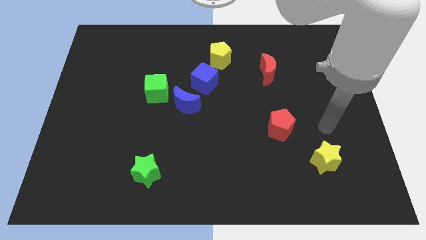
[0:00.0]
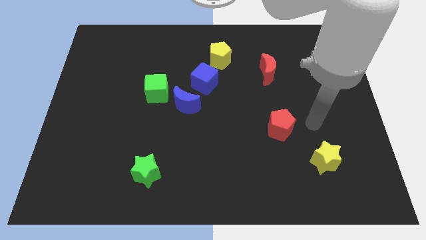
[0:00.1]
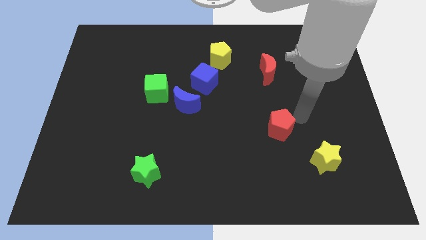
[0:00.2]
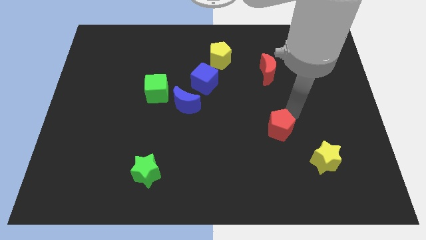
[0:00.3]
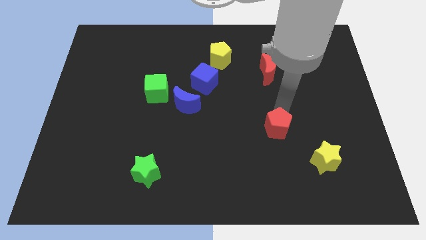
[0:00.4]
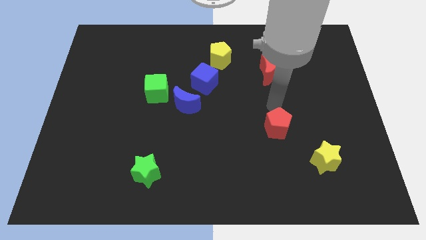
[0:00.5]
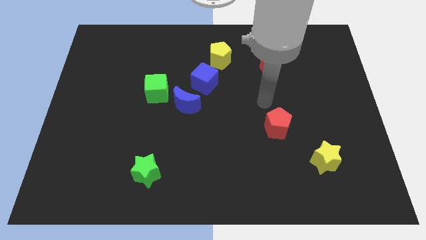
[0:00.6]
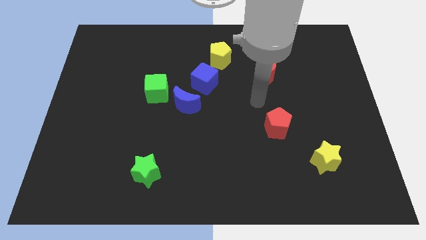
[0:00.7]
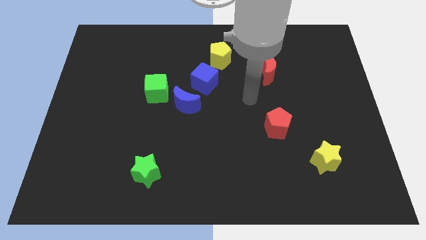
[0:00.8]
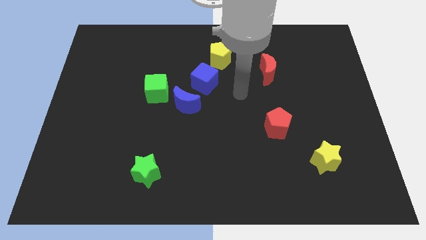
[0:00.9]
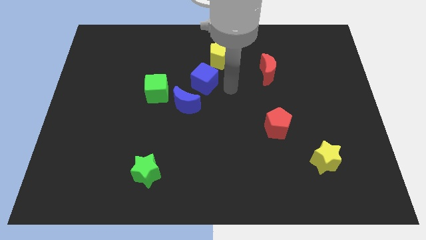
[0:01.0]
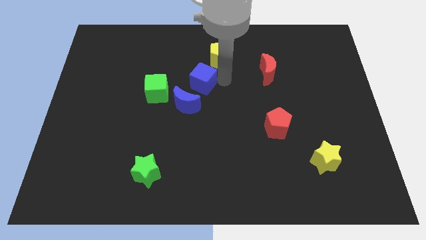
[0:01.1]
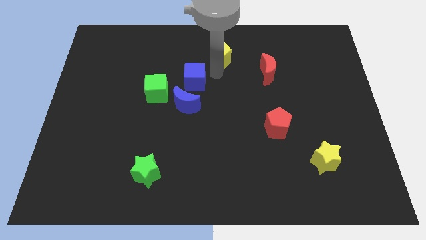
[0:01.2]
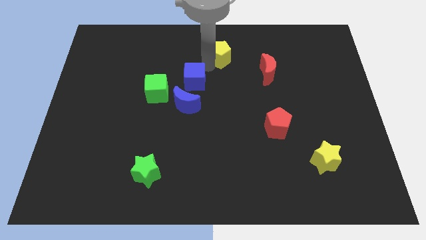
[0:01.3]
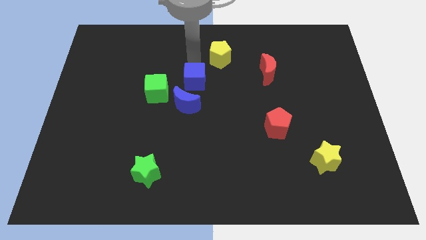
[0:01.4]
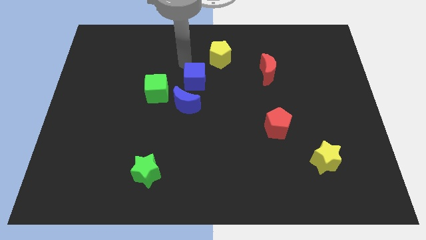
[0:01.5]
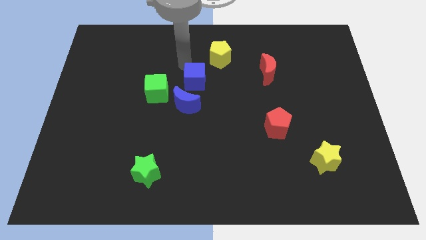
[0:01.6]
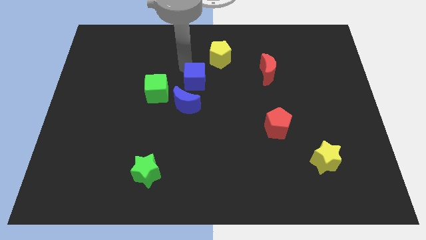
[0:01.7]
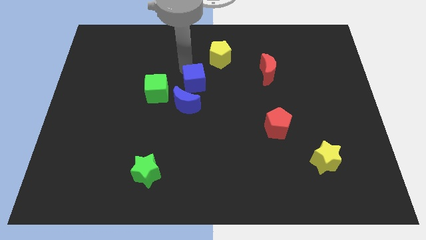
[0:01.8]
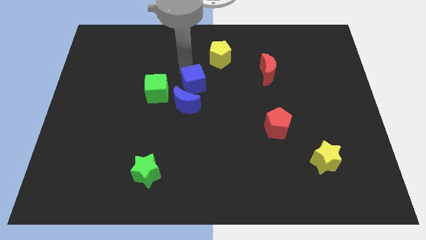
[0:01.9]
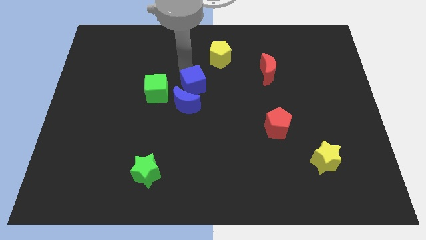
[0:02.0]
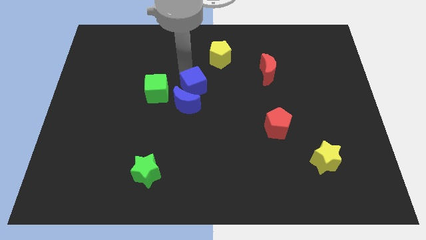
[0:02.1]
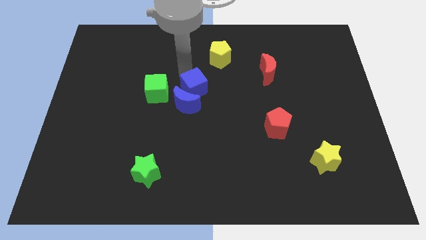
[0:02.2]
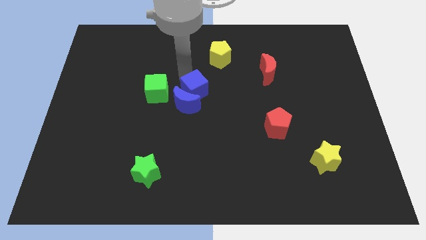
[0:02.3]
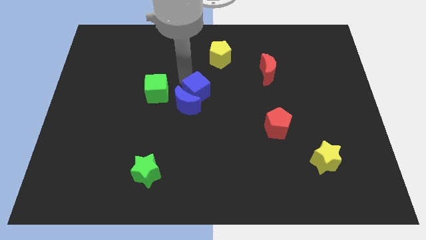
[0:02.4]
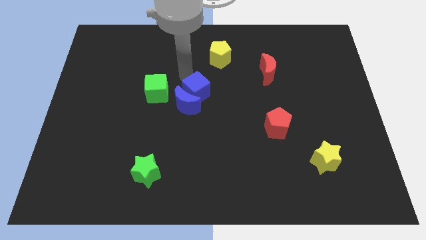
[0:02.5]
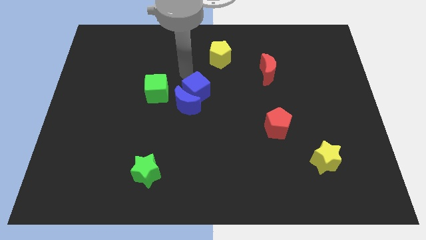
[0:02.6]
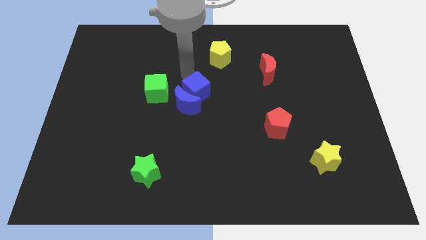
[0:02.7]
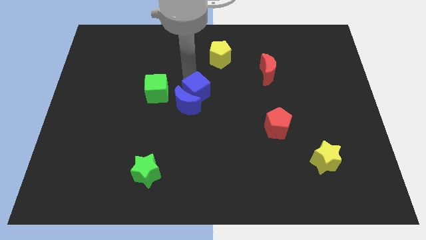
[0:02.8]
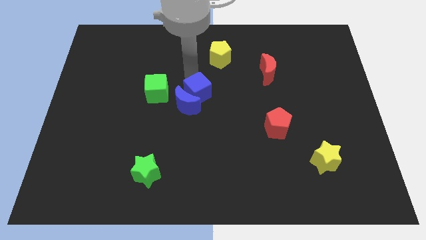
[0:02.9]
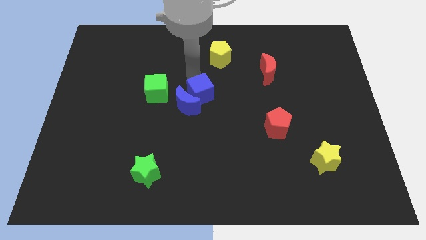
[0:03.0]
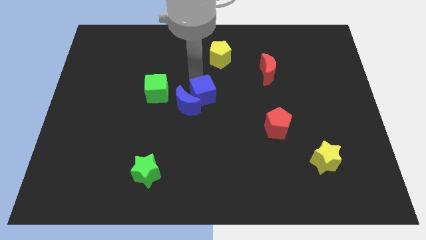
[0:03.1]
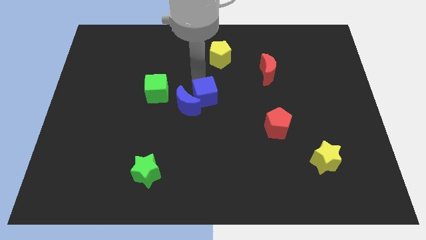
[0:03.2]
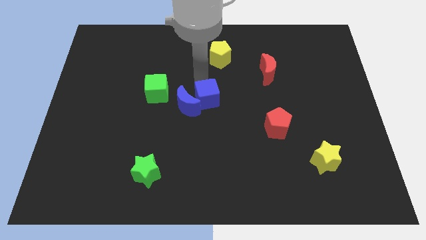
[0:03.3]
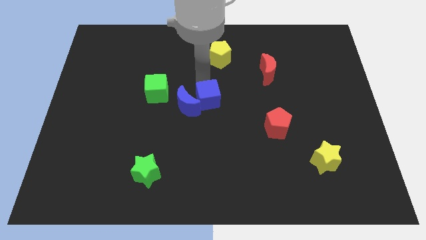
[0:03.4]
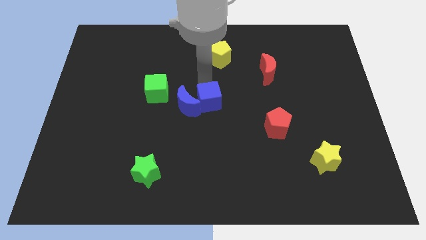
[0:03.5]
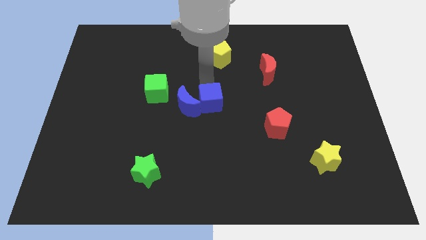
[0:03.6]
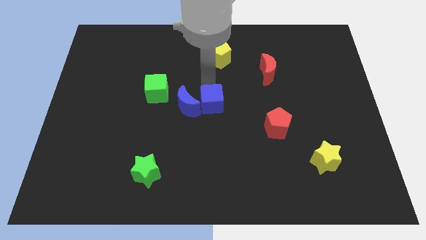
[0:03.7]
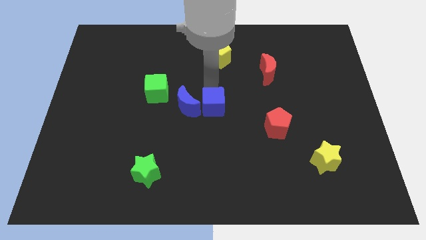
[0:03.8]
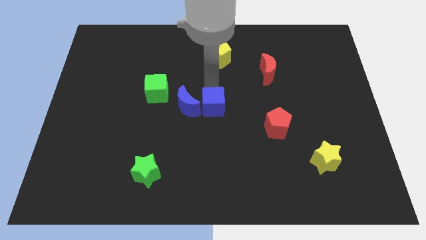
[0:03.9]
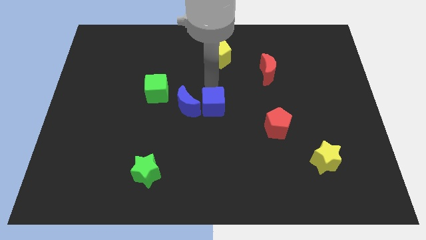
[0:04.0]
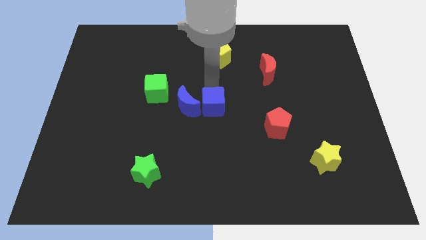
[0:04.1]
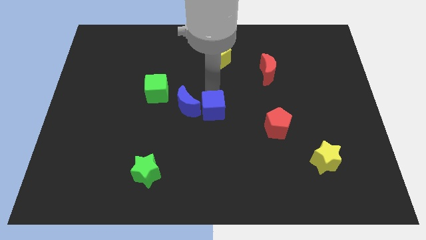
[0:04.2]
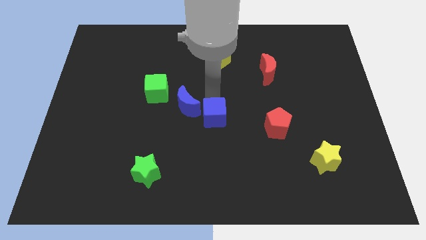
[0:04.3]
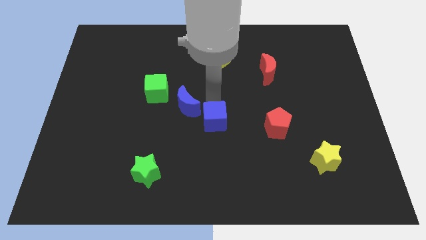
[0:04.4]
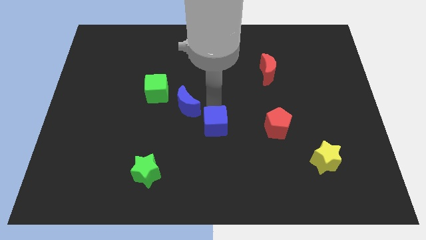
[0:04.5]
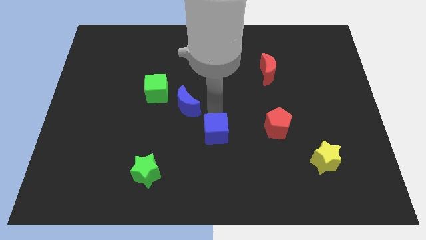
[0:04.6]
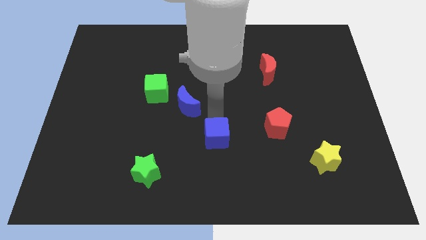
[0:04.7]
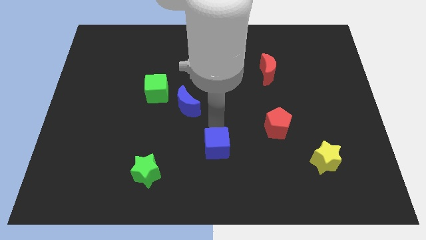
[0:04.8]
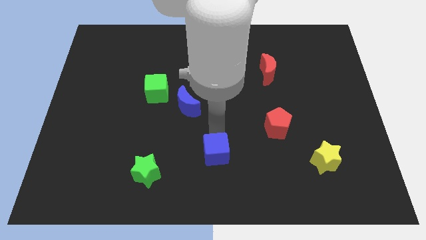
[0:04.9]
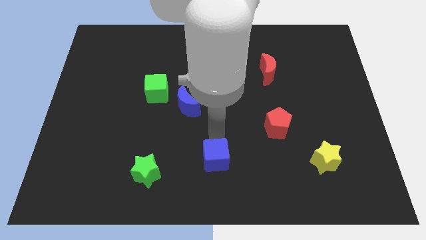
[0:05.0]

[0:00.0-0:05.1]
slide the blue cube to the bottom

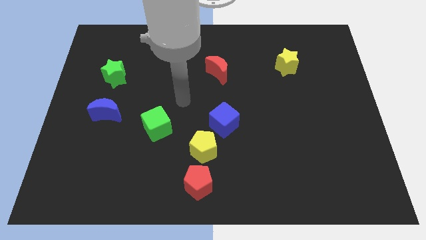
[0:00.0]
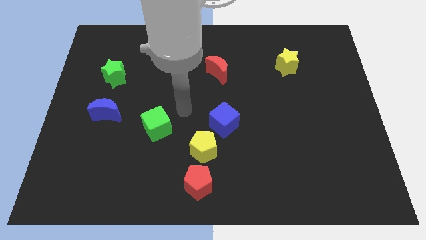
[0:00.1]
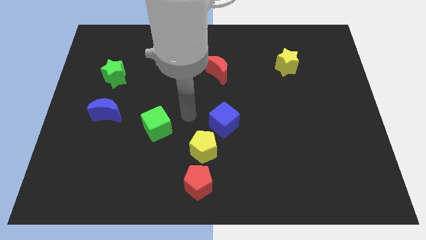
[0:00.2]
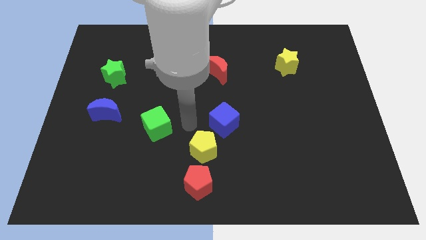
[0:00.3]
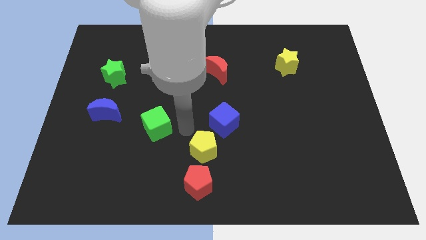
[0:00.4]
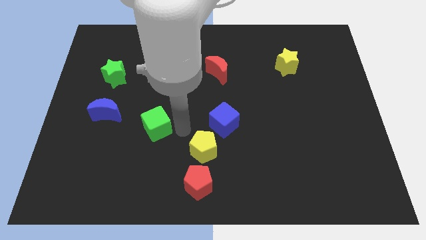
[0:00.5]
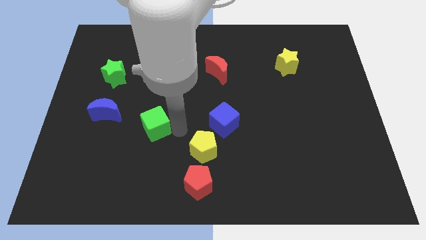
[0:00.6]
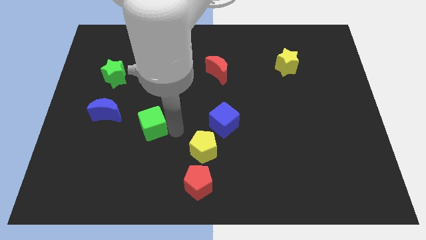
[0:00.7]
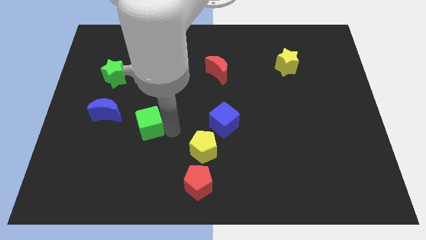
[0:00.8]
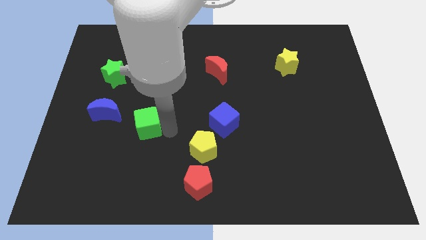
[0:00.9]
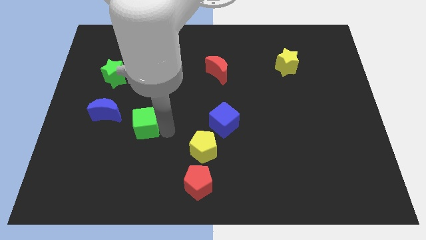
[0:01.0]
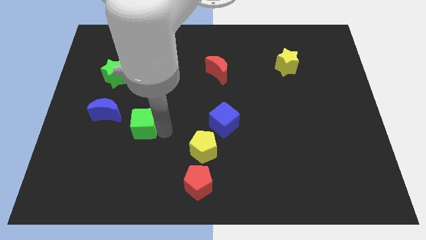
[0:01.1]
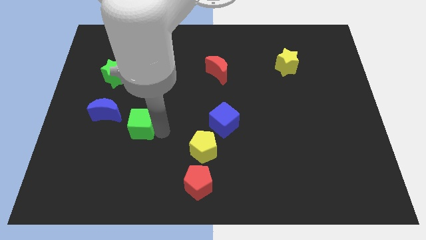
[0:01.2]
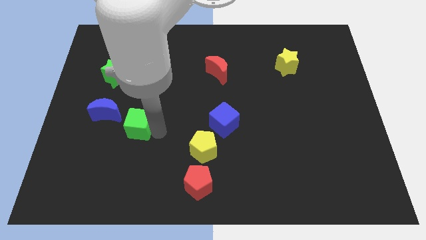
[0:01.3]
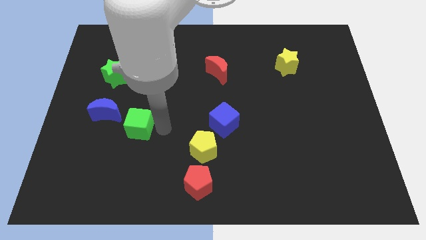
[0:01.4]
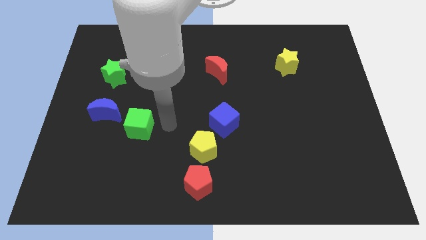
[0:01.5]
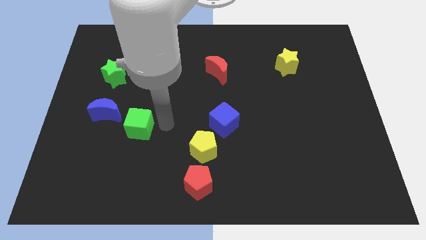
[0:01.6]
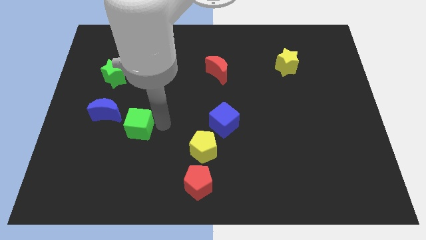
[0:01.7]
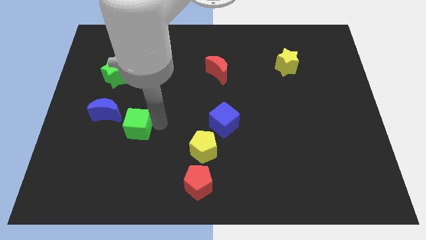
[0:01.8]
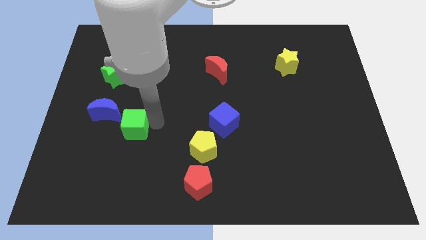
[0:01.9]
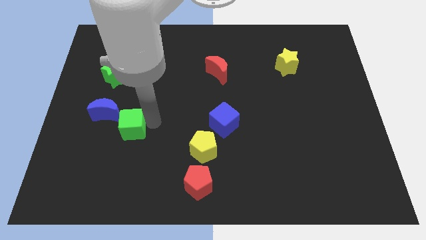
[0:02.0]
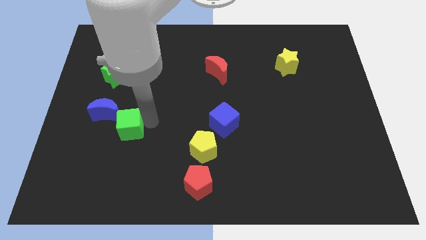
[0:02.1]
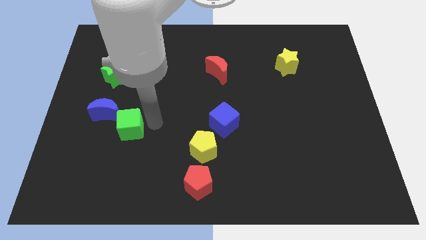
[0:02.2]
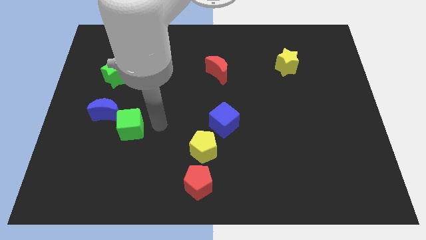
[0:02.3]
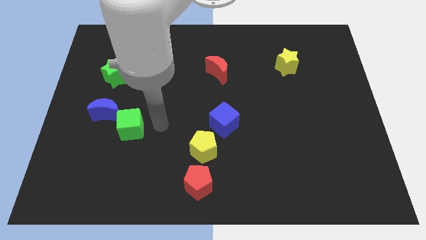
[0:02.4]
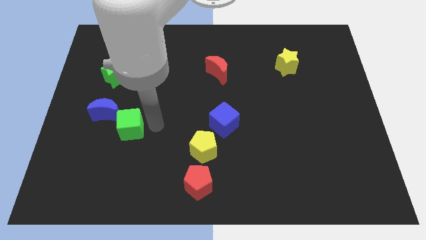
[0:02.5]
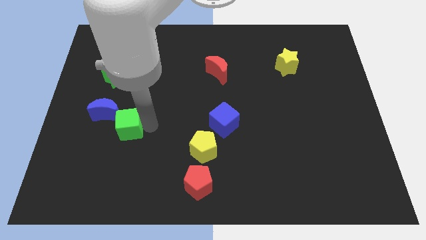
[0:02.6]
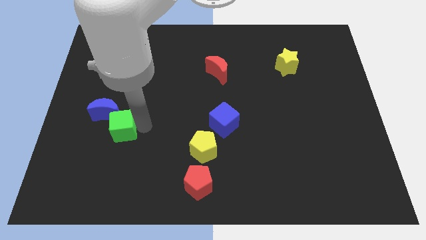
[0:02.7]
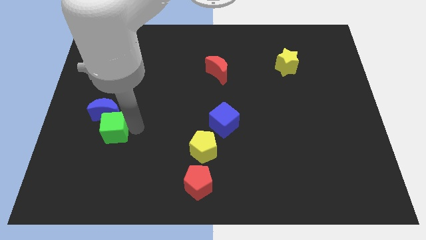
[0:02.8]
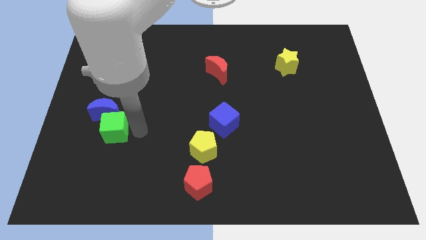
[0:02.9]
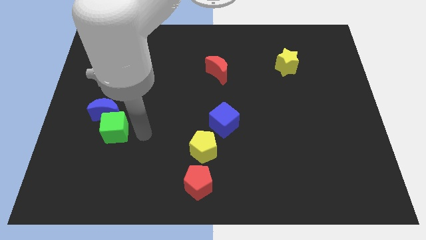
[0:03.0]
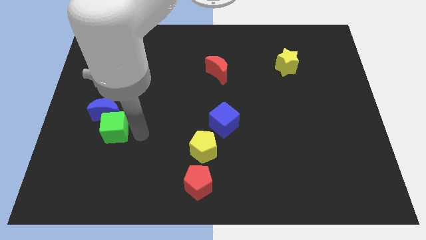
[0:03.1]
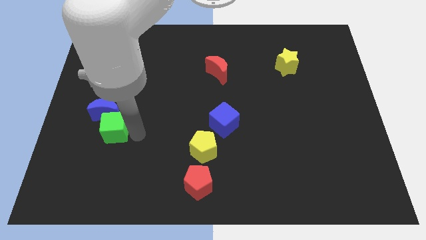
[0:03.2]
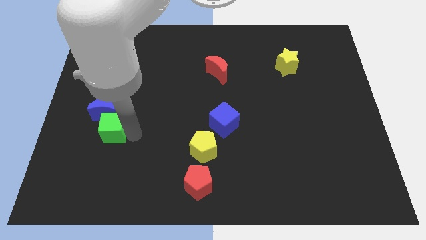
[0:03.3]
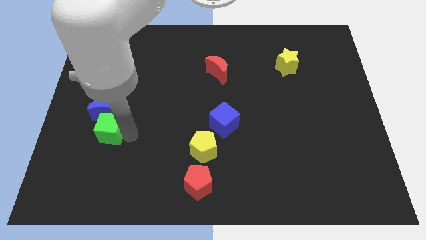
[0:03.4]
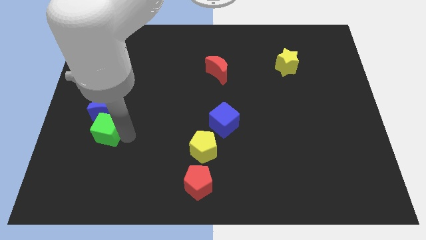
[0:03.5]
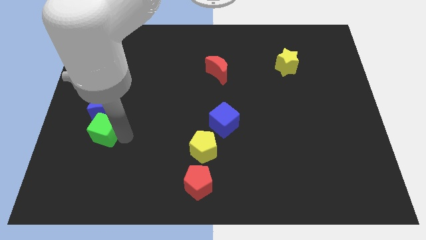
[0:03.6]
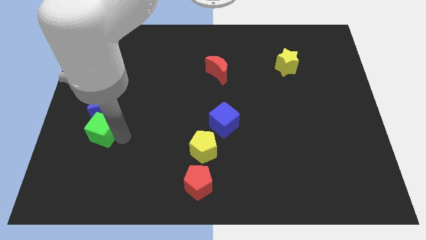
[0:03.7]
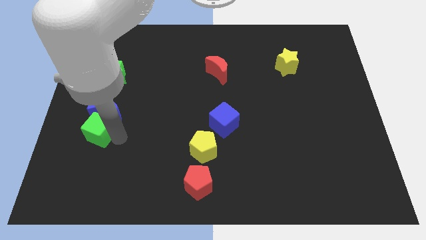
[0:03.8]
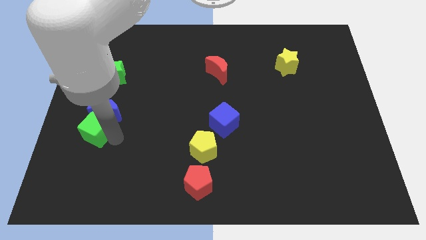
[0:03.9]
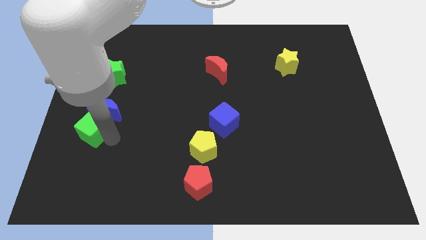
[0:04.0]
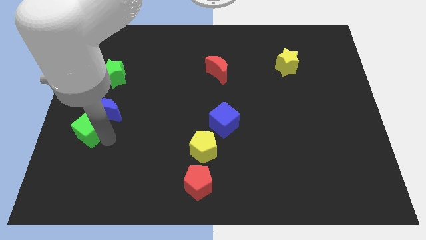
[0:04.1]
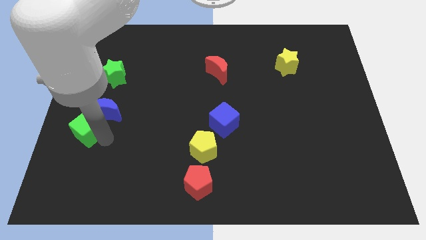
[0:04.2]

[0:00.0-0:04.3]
push the green cube to the center left
